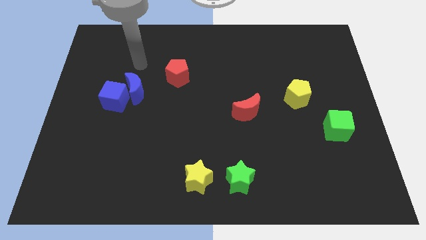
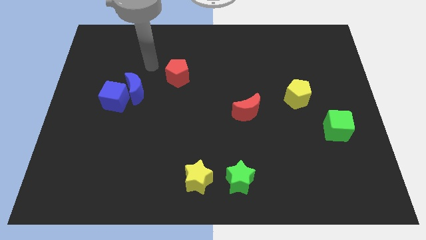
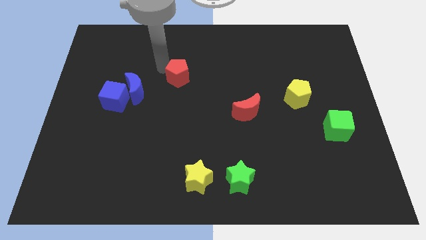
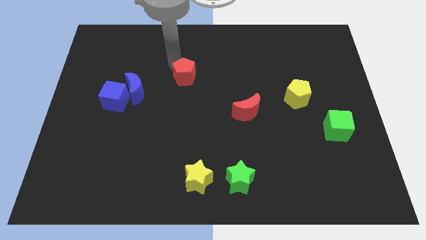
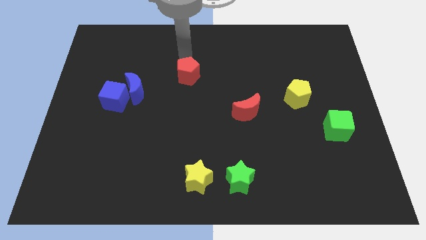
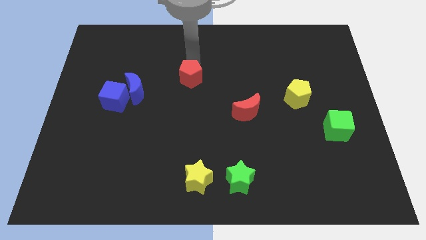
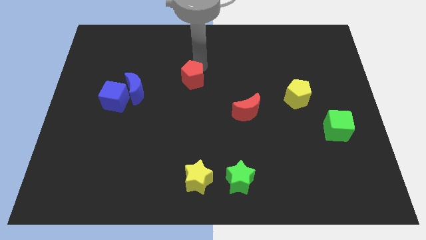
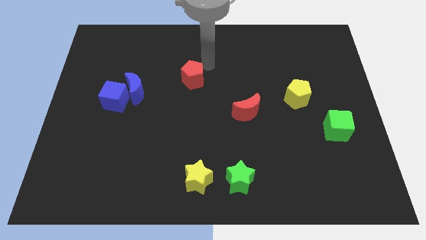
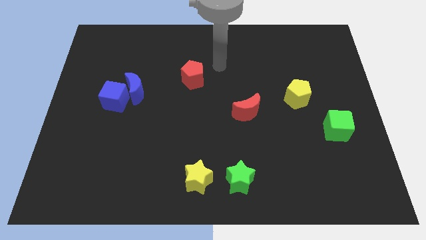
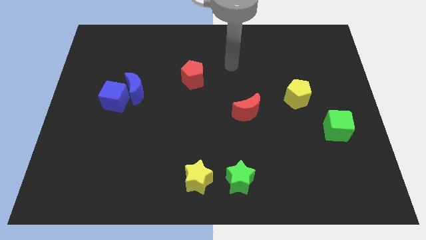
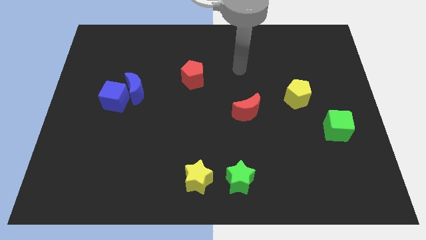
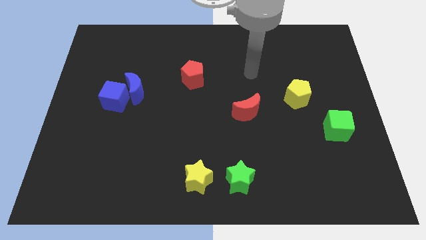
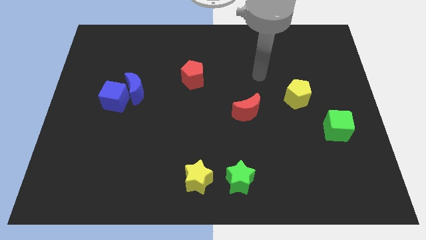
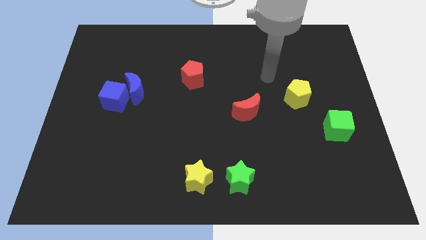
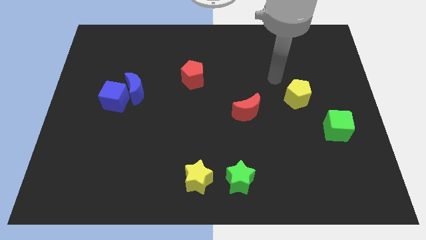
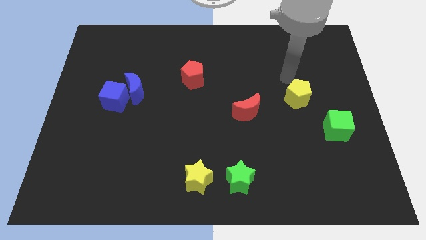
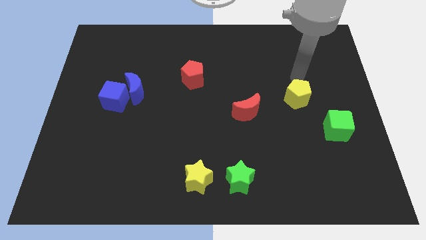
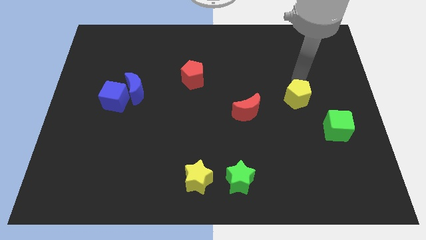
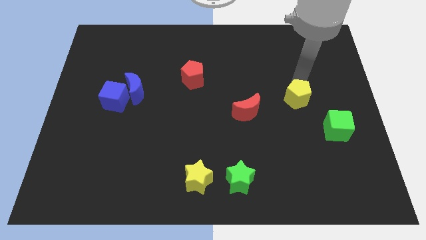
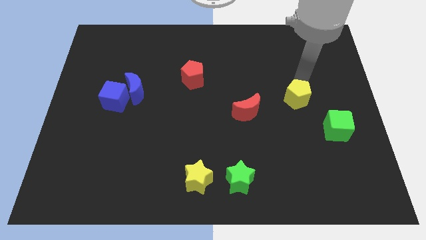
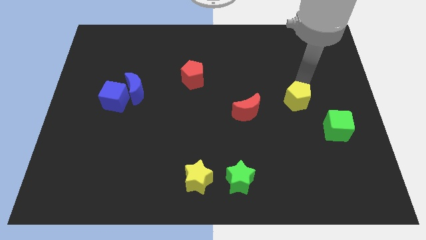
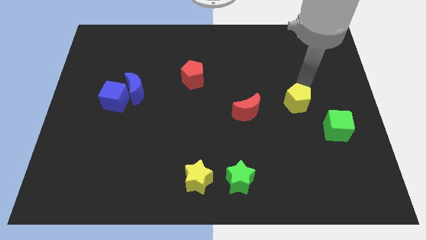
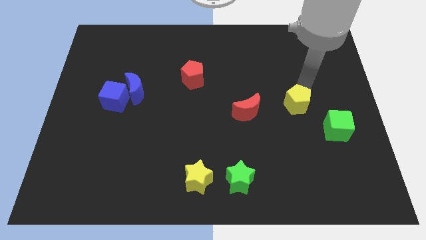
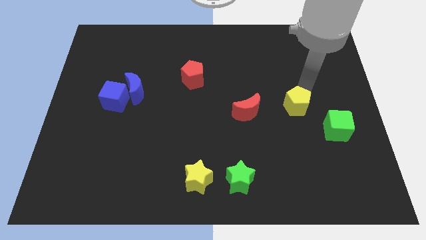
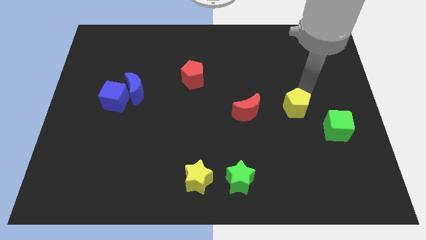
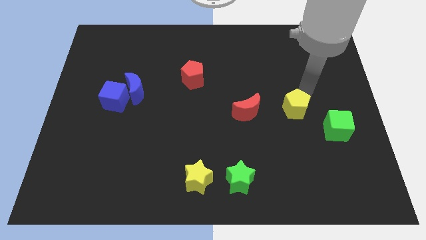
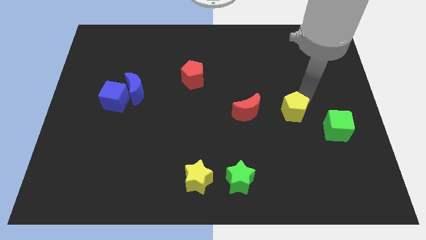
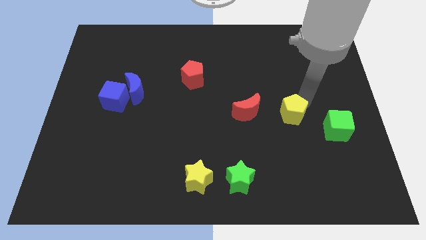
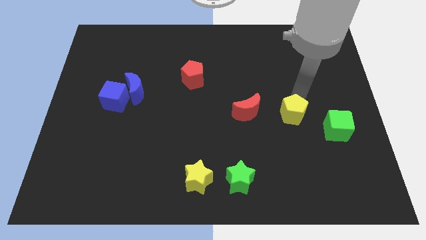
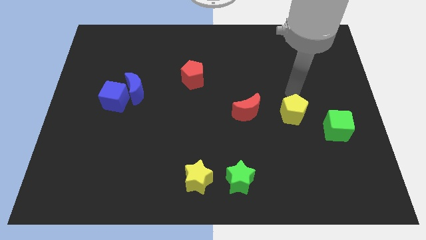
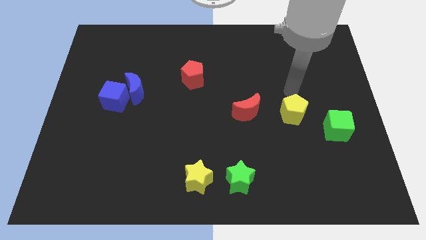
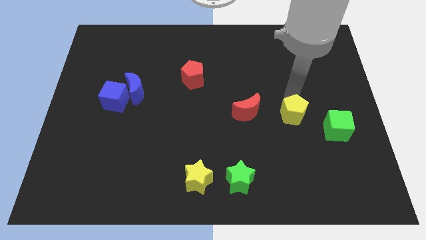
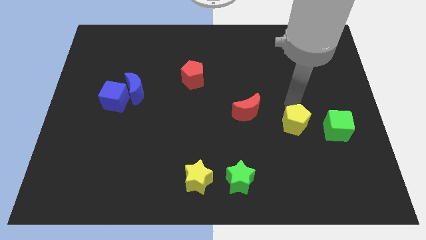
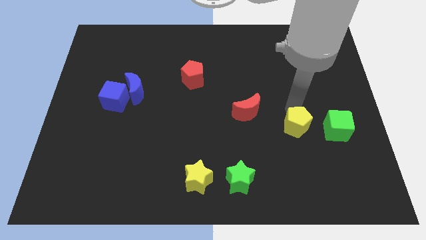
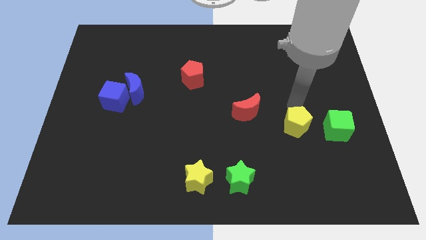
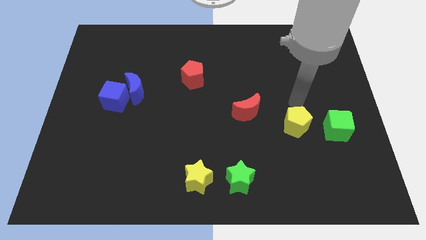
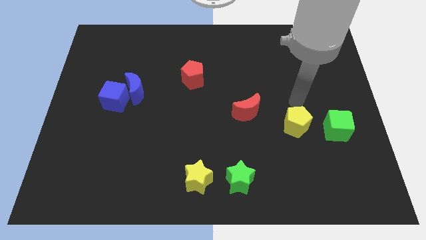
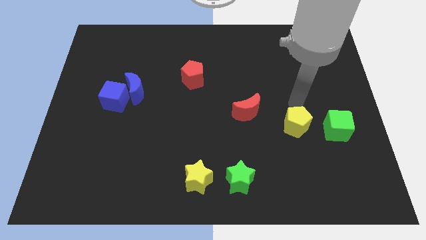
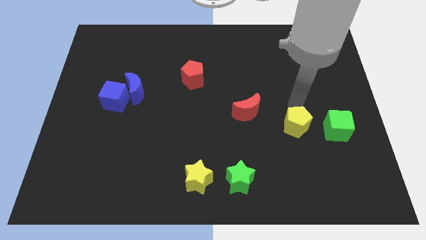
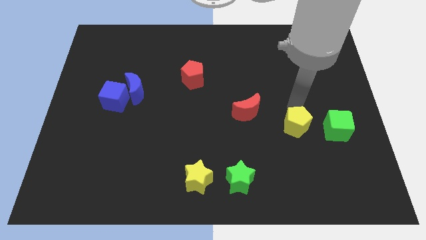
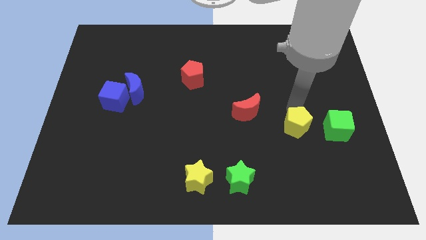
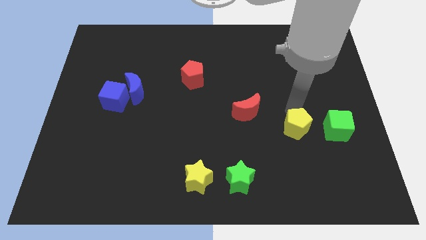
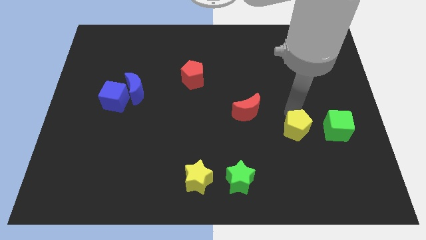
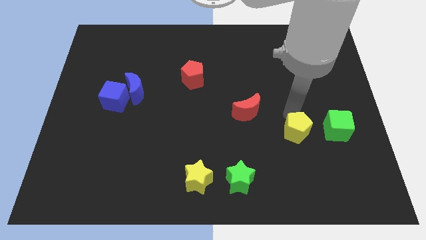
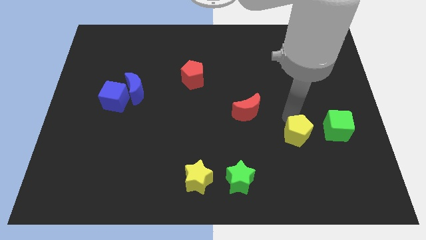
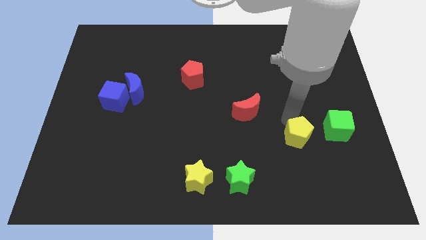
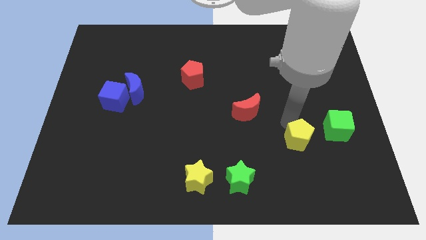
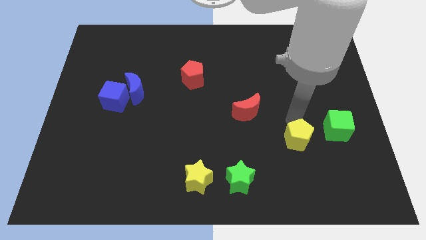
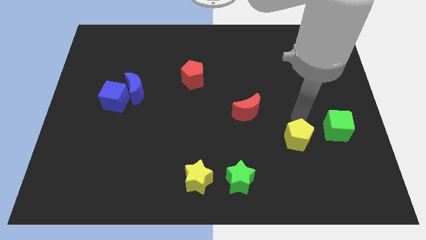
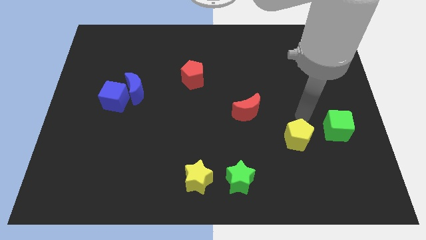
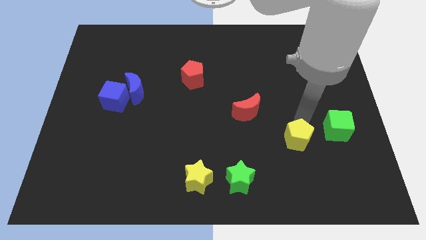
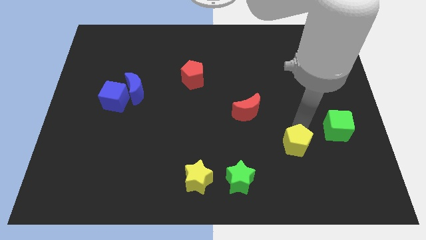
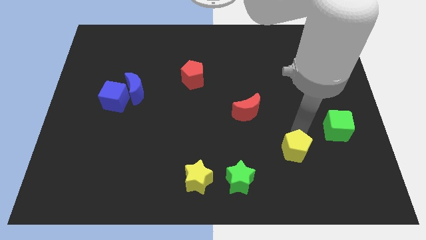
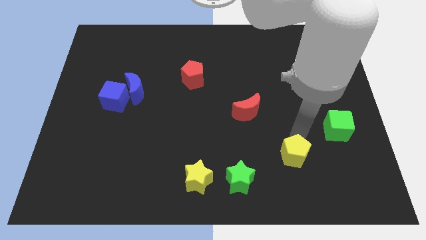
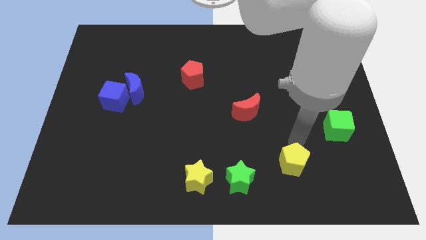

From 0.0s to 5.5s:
put the yellow pentagon to the right of the green star

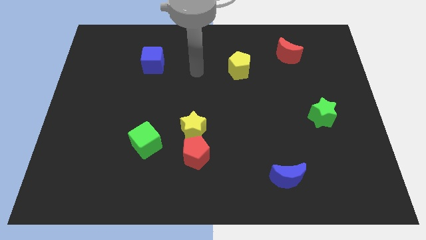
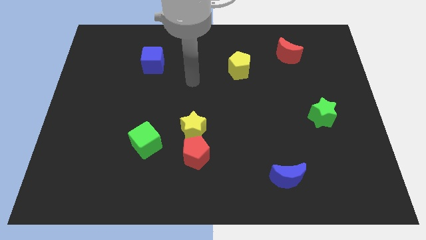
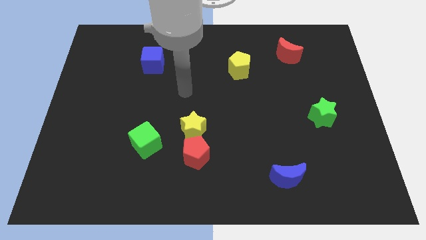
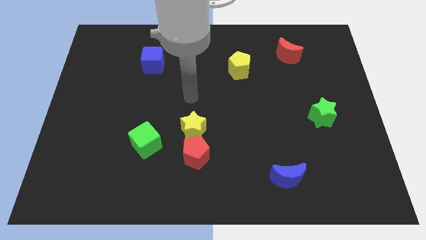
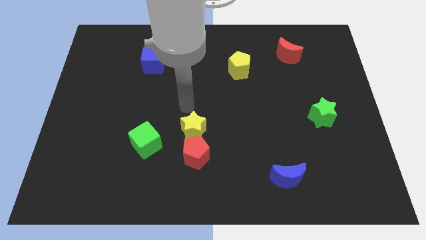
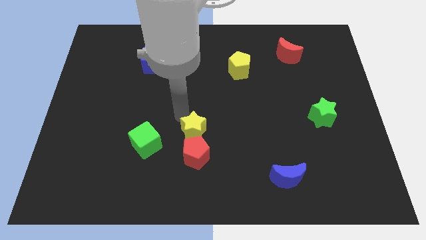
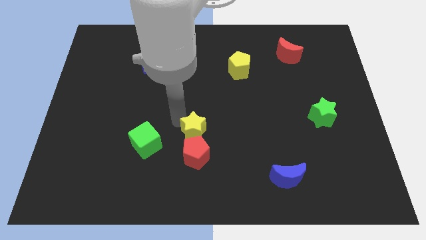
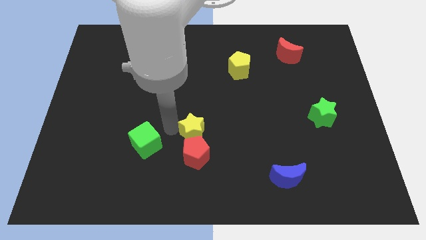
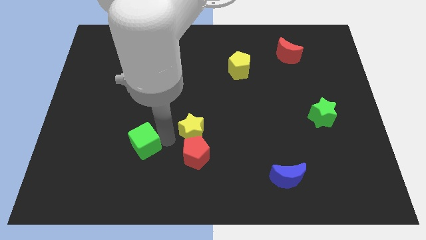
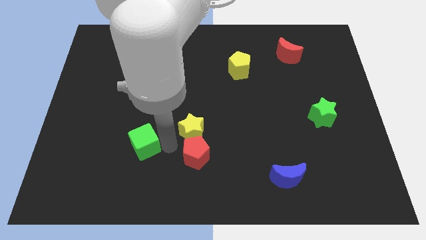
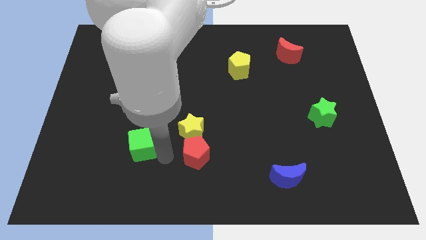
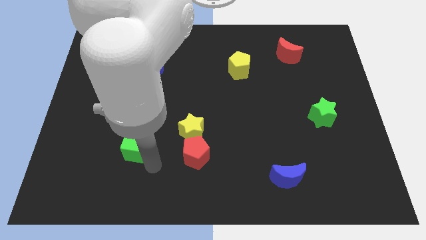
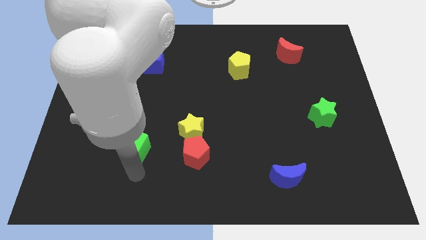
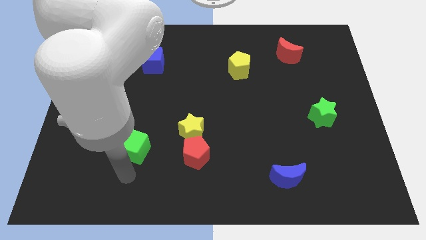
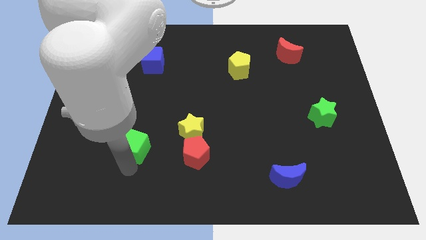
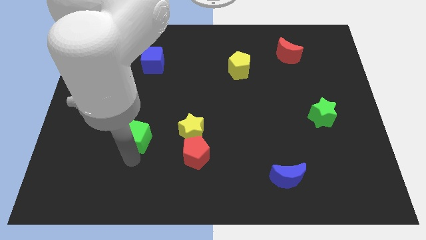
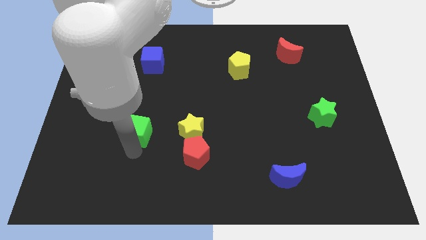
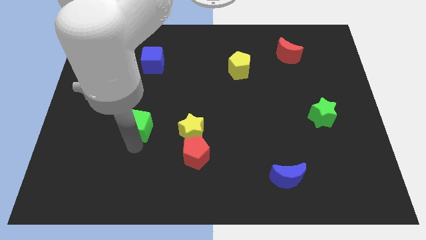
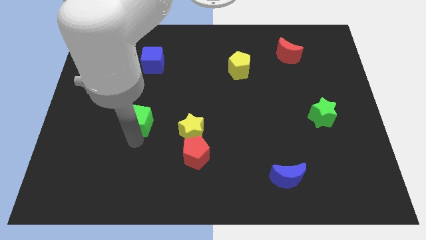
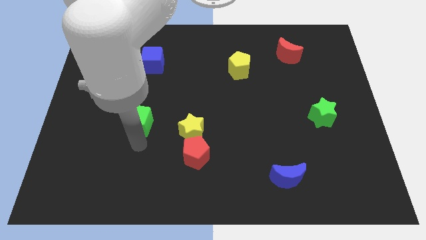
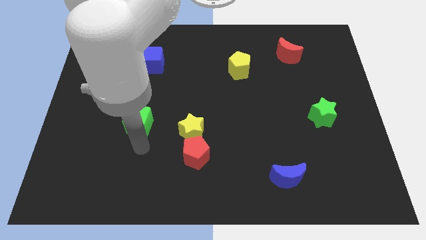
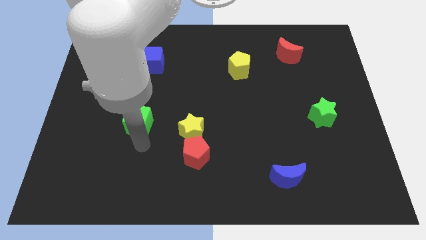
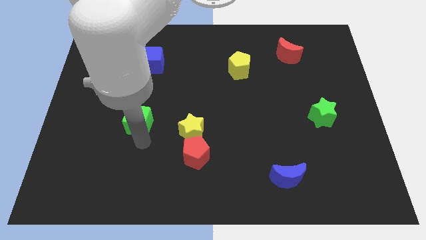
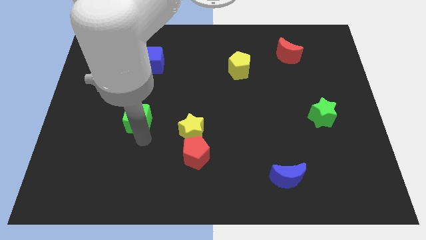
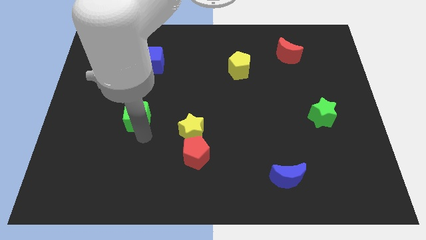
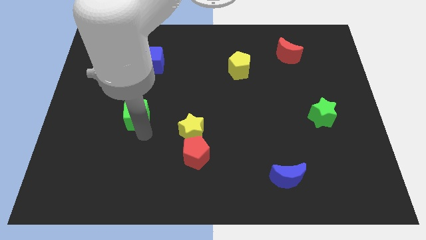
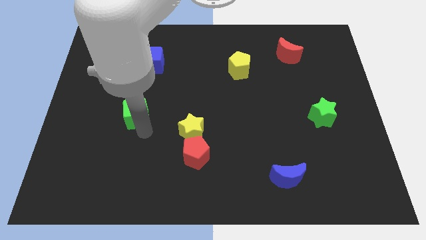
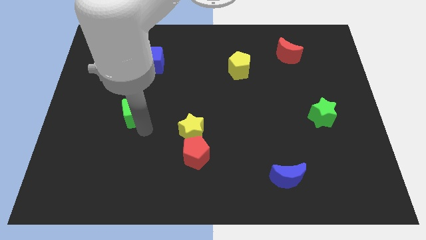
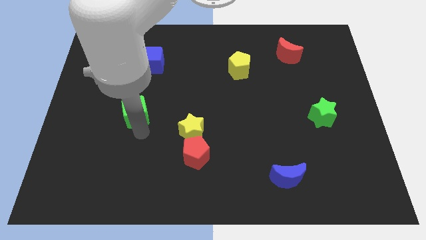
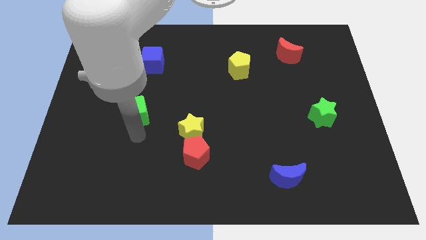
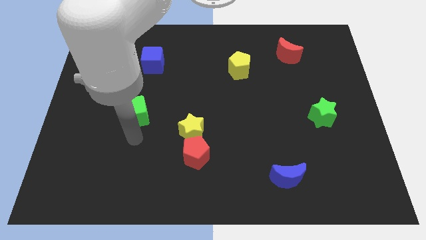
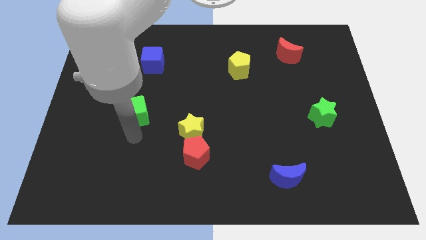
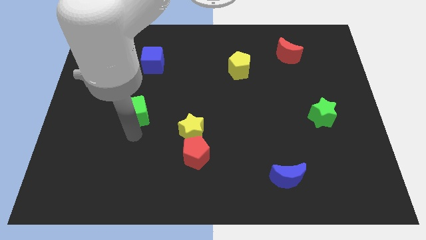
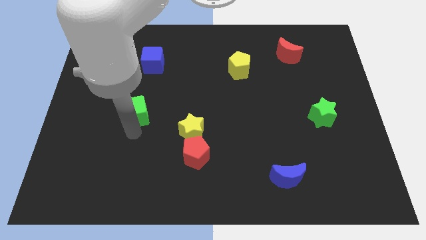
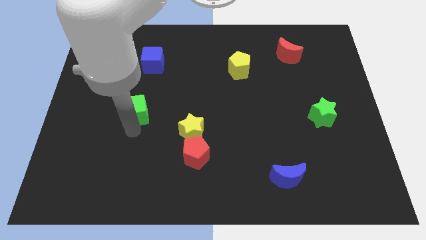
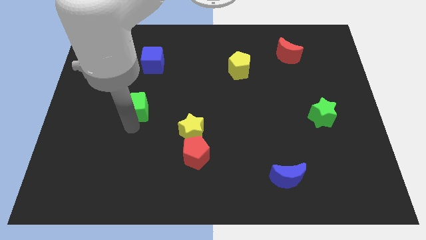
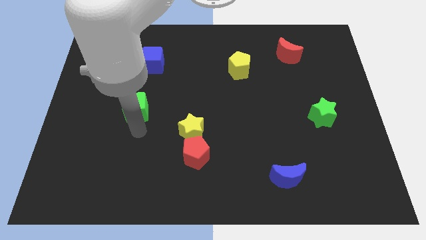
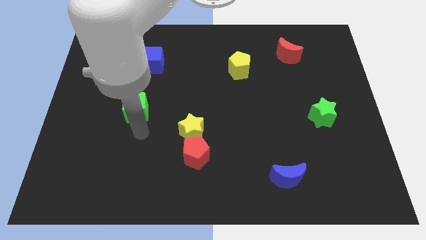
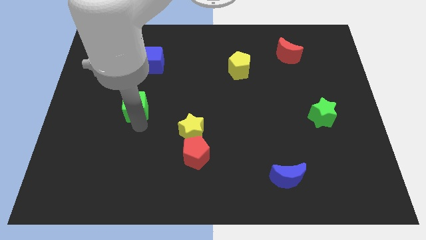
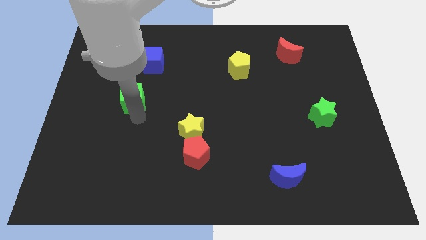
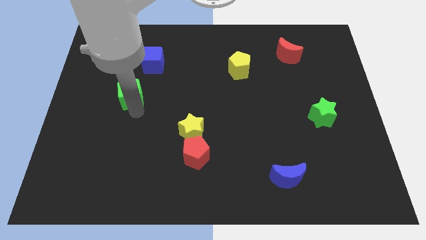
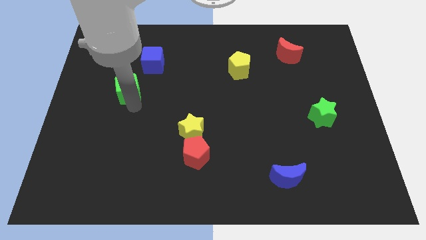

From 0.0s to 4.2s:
move the green cube to the bottom left side of the blue cube
